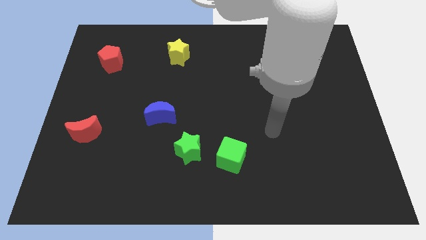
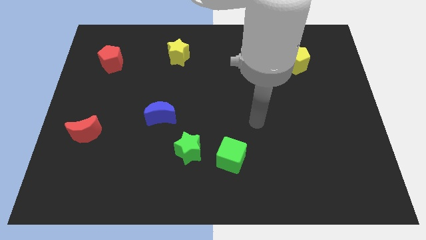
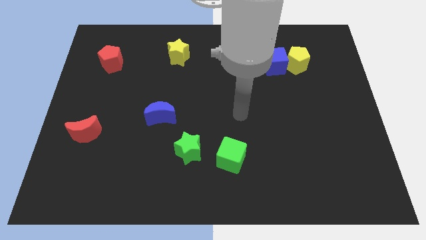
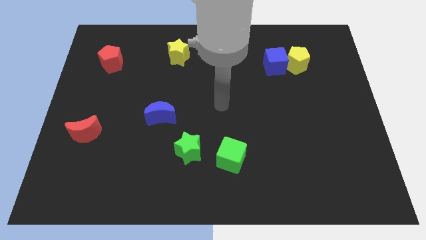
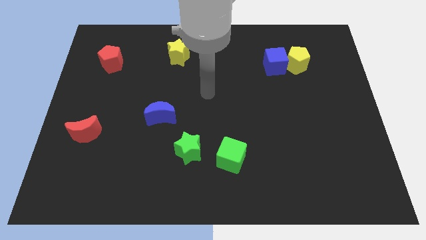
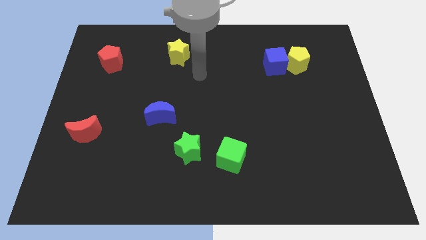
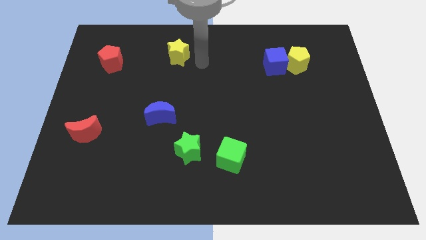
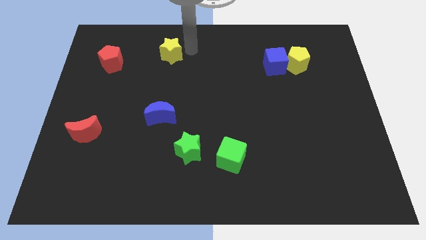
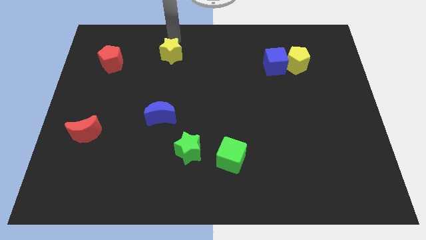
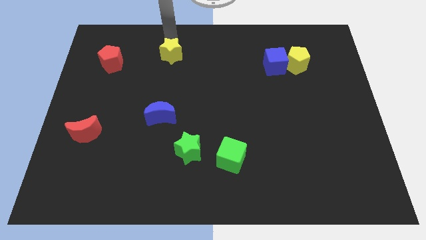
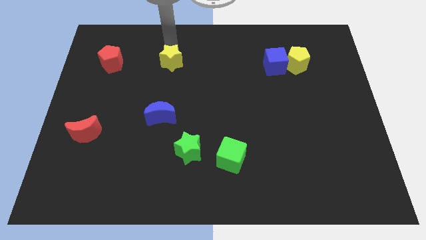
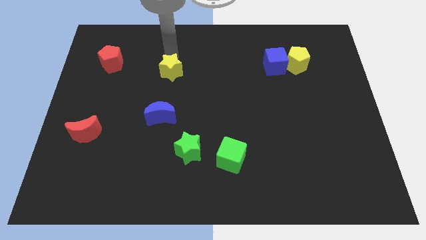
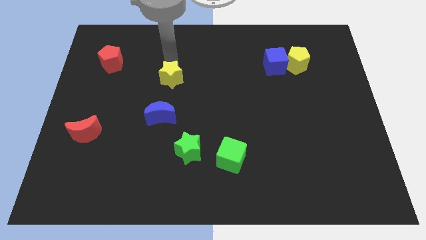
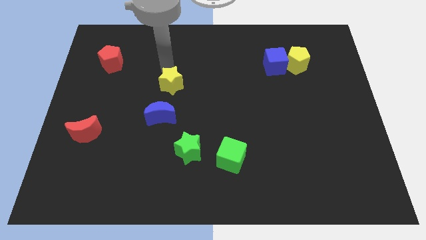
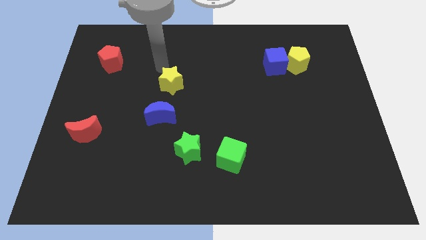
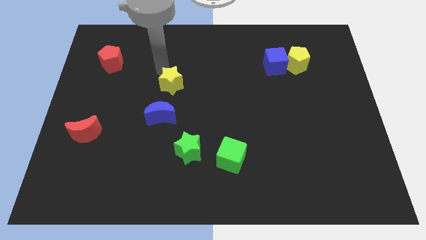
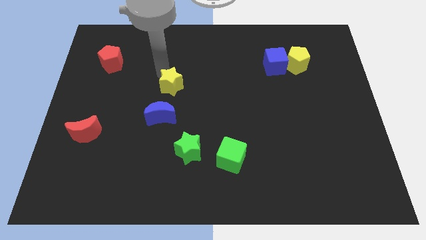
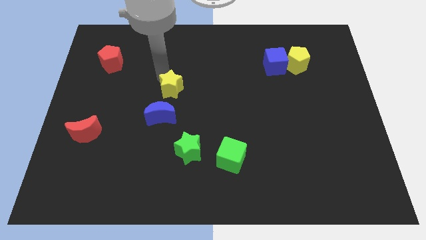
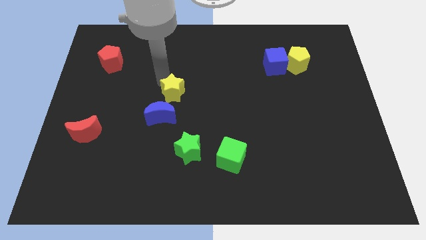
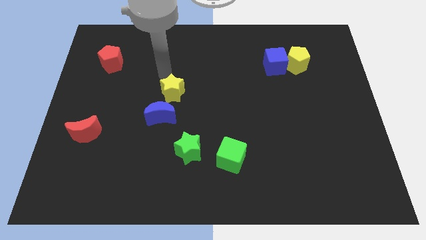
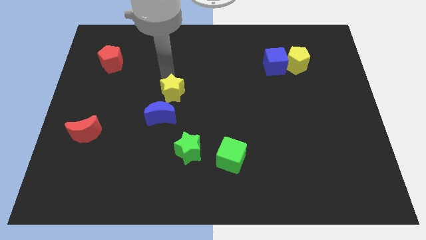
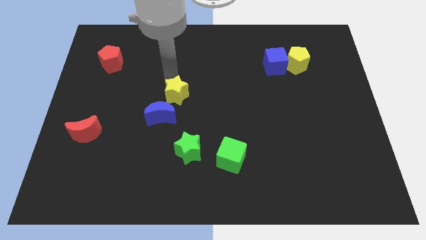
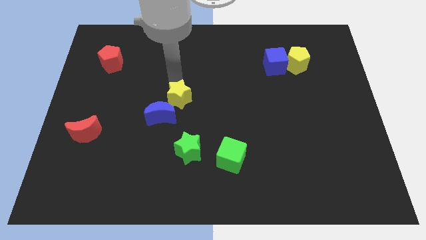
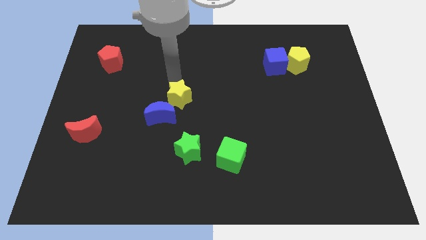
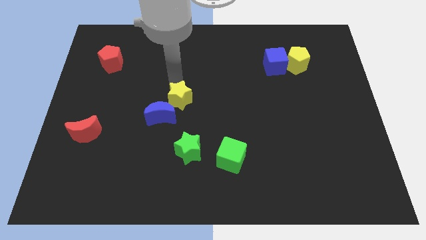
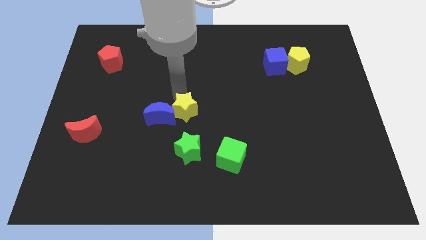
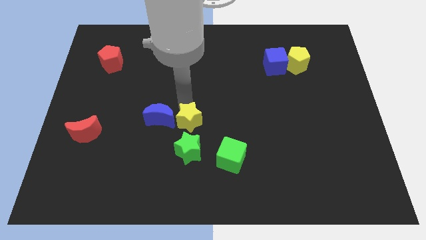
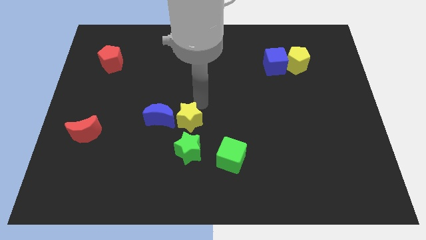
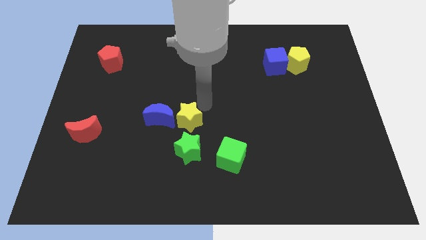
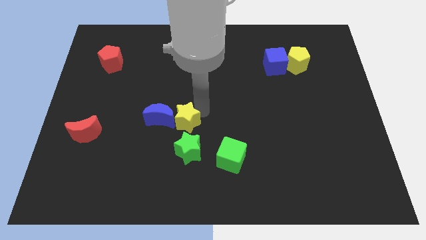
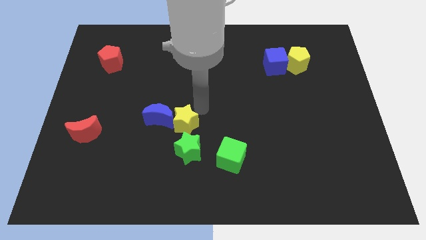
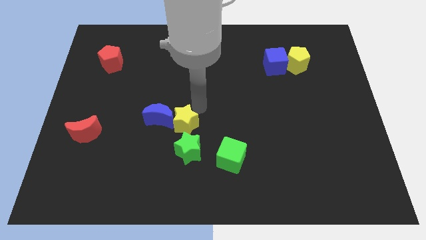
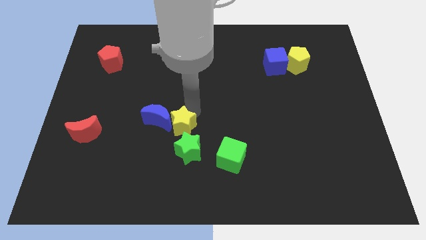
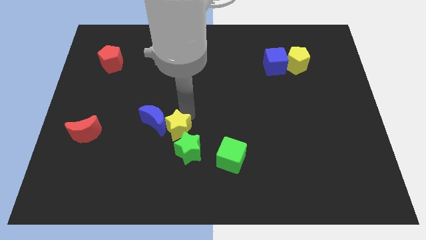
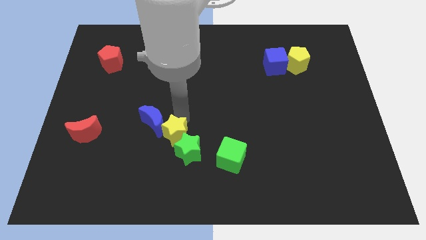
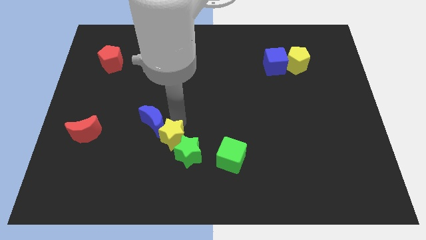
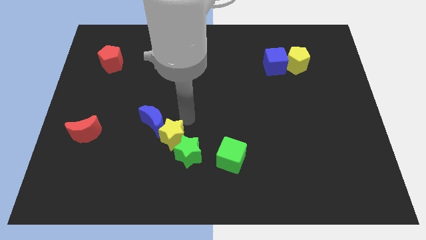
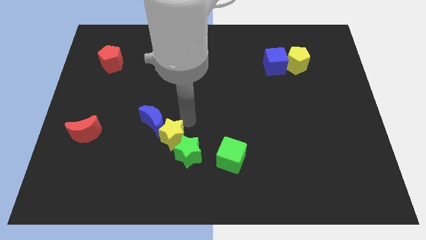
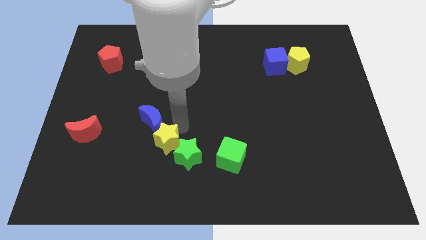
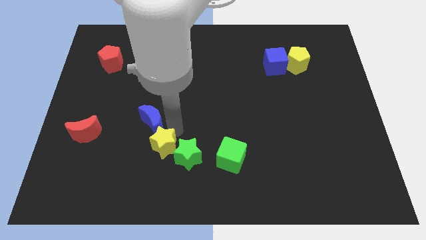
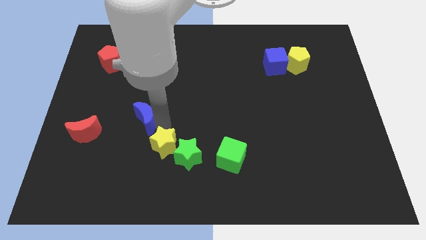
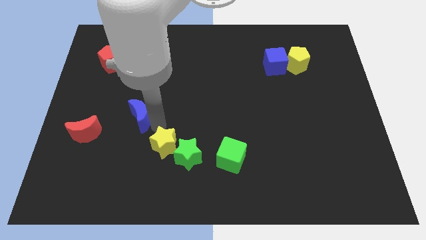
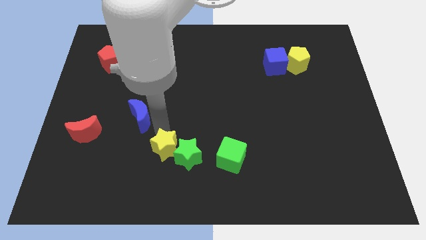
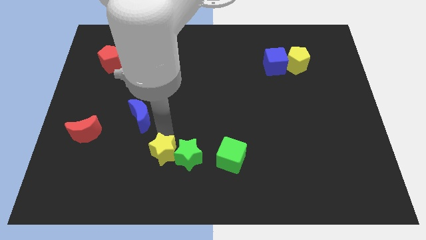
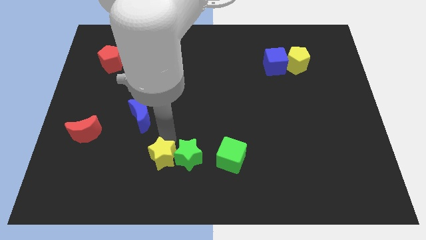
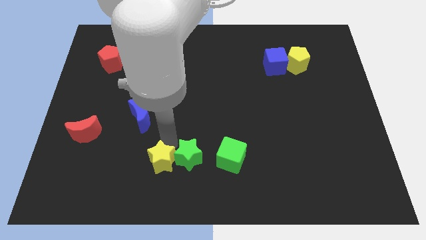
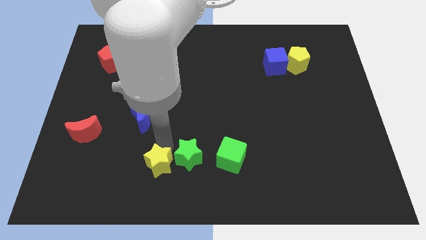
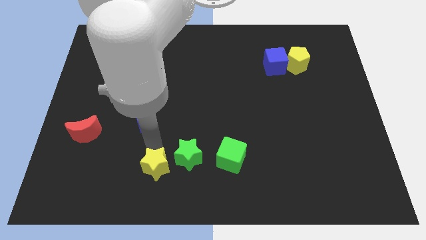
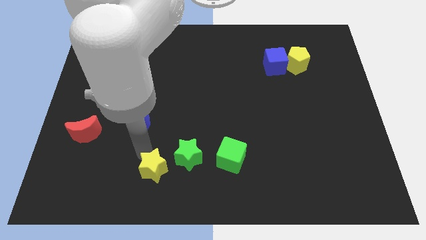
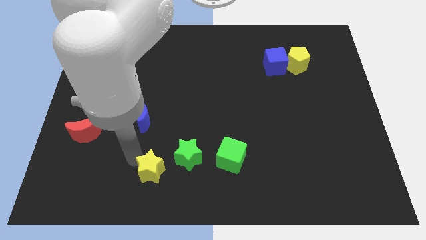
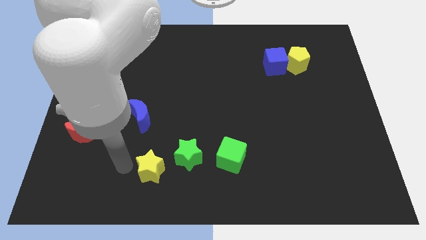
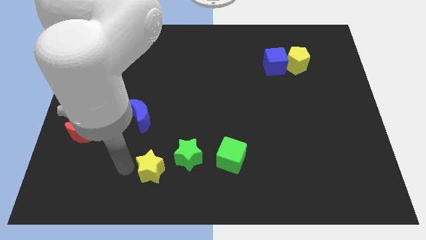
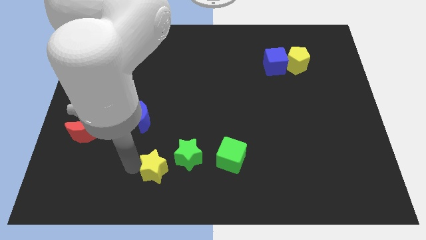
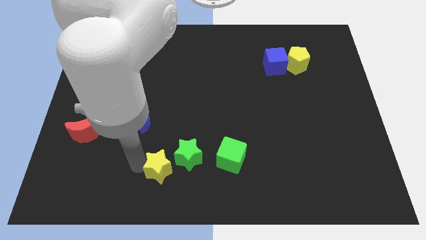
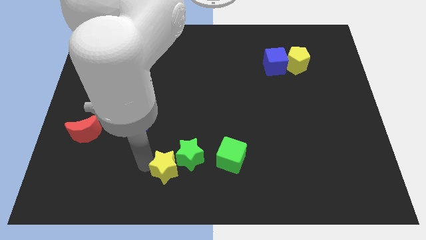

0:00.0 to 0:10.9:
slide the yellow star to the bottom side

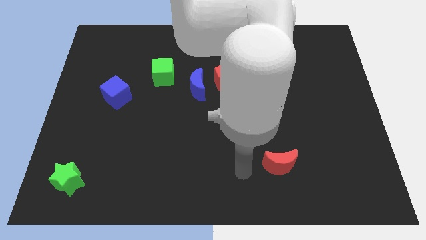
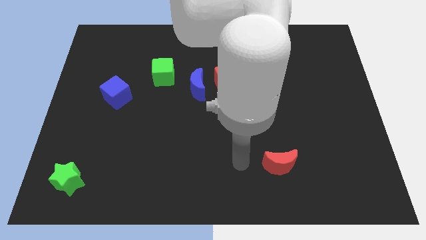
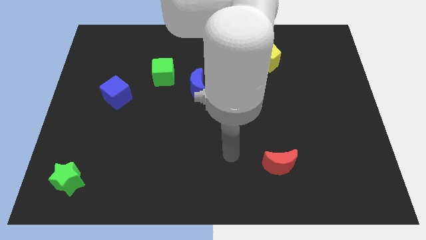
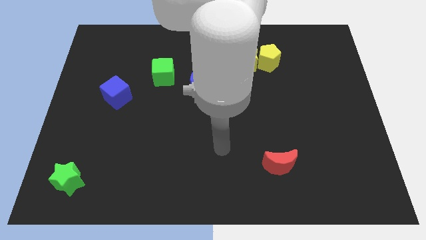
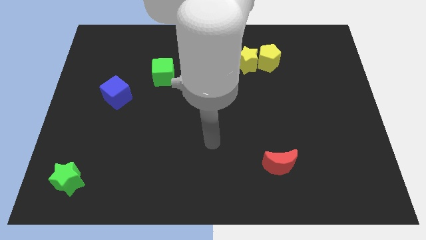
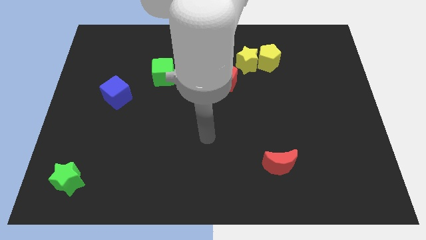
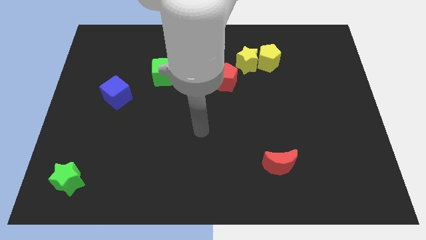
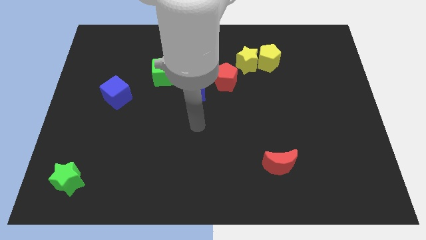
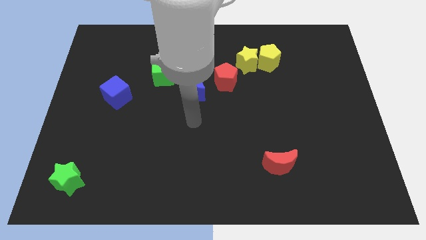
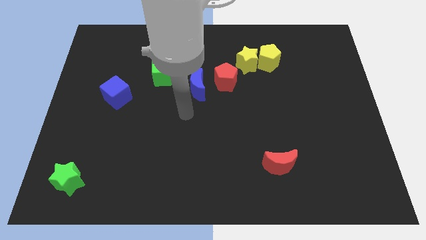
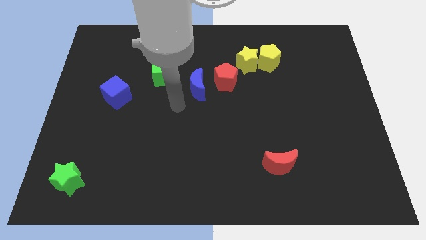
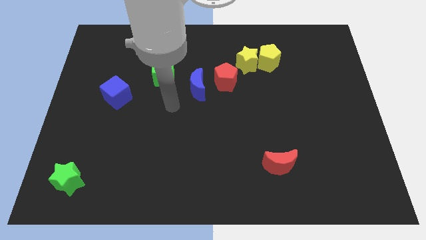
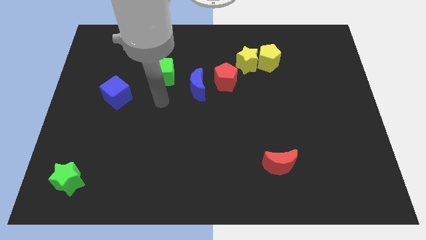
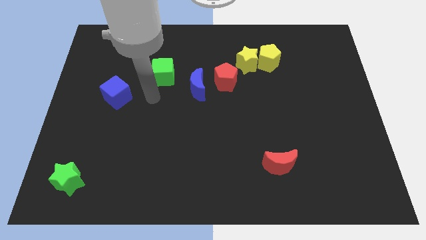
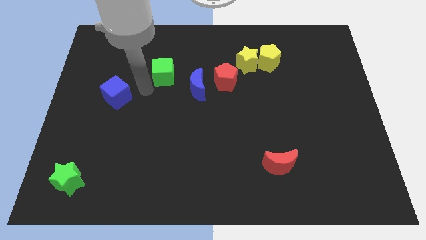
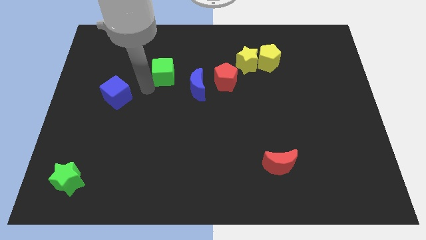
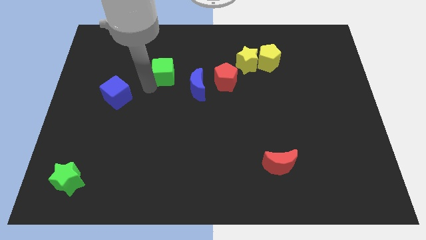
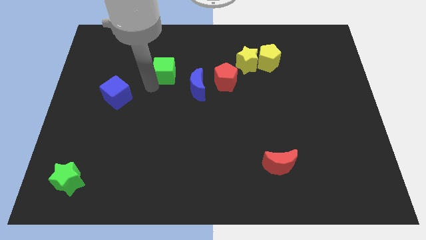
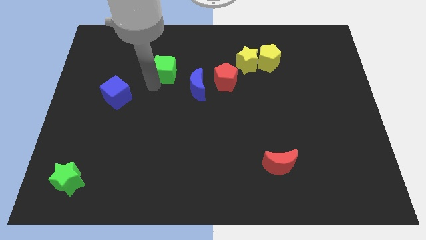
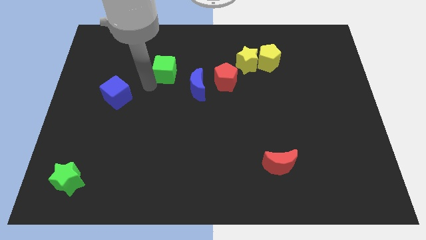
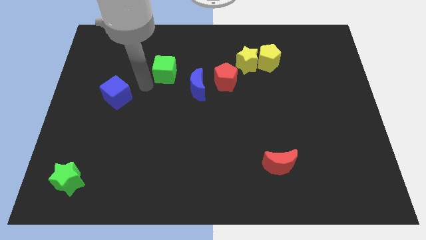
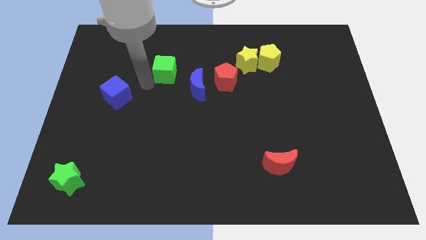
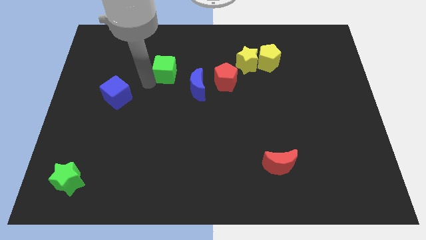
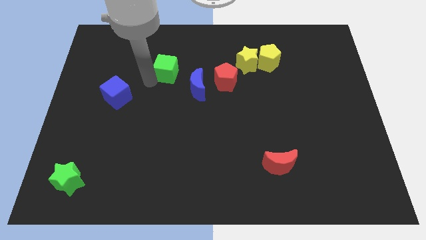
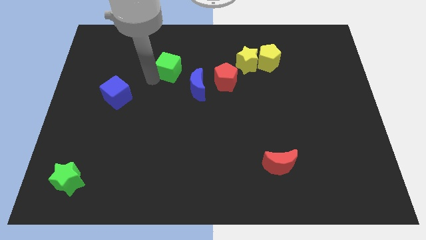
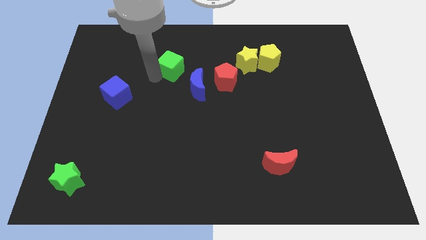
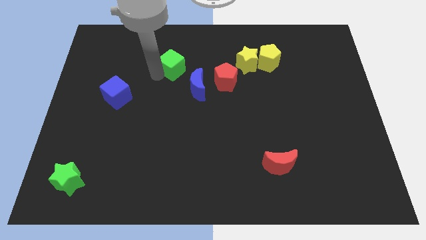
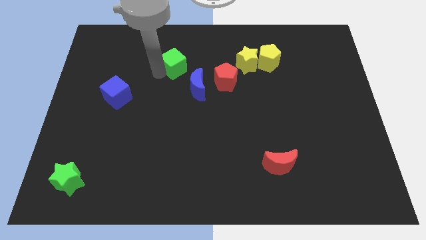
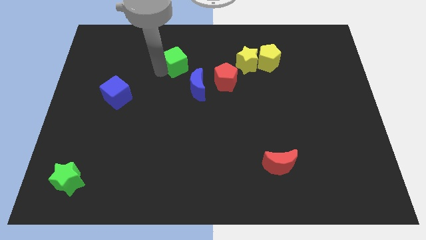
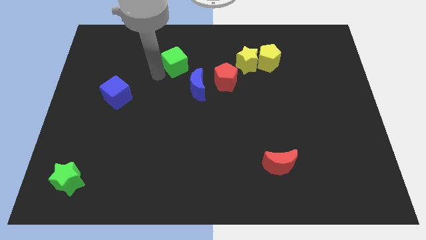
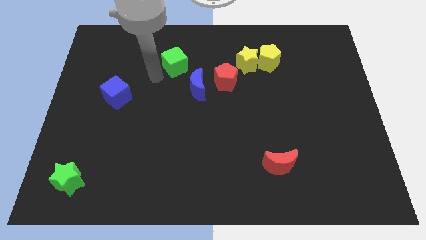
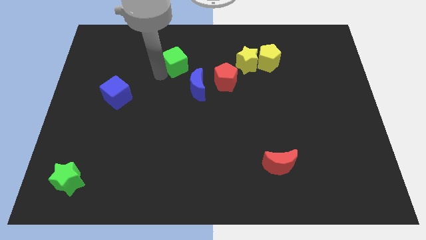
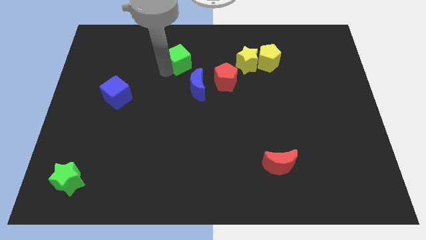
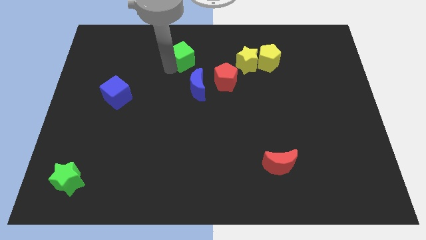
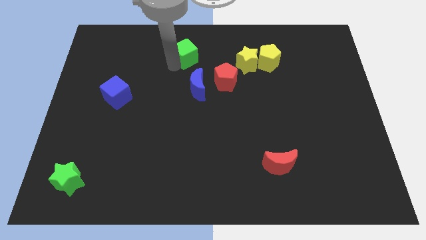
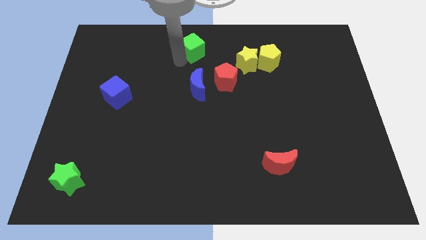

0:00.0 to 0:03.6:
slide the green cube to the top side
